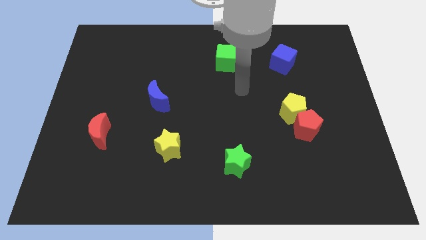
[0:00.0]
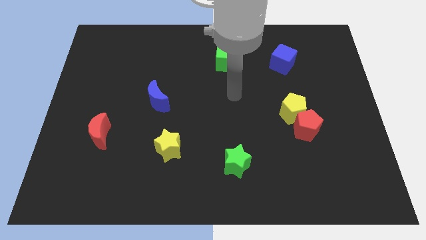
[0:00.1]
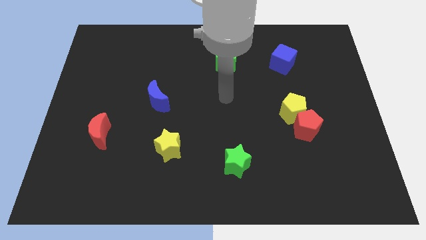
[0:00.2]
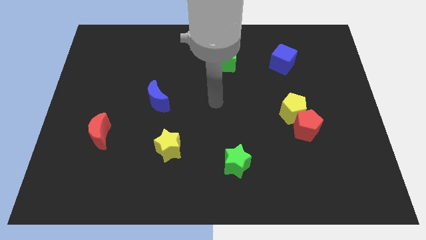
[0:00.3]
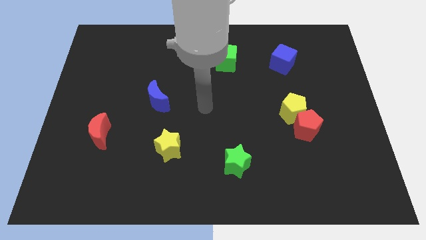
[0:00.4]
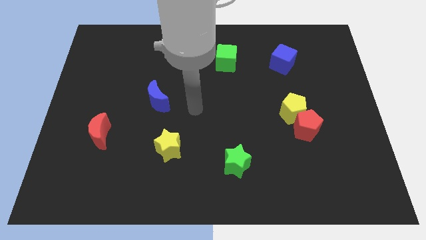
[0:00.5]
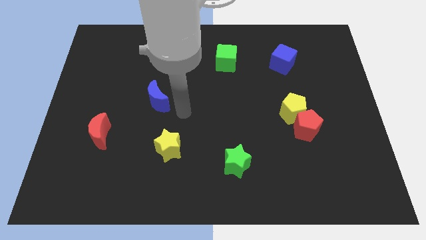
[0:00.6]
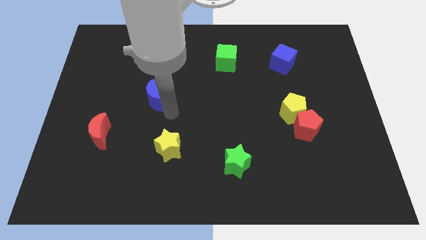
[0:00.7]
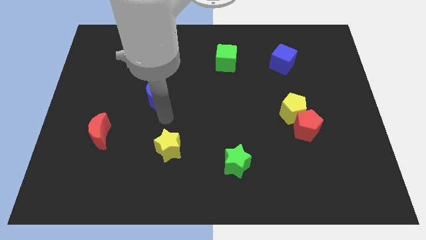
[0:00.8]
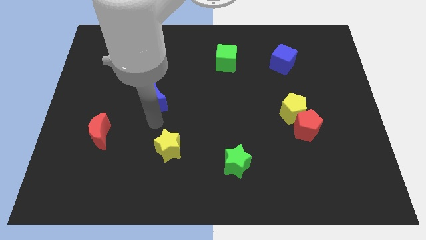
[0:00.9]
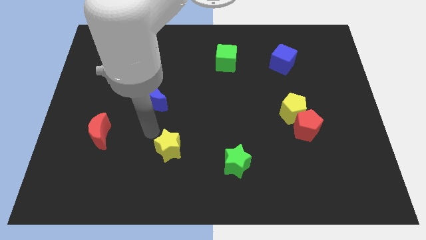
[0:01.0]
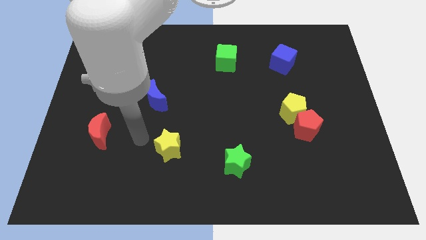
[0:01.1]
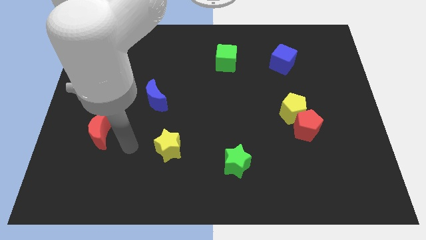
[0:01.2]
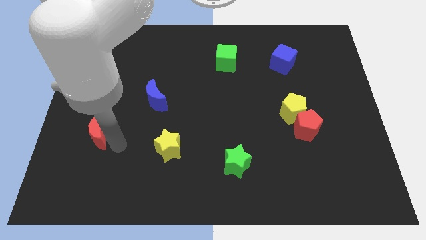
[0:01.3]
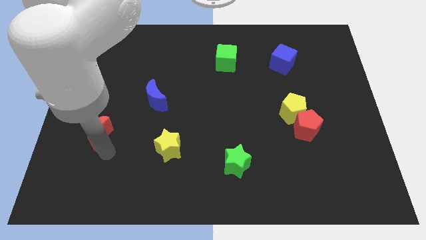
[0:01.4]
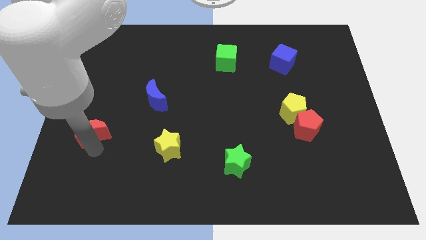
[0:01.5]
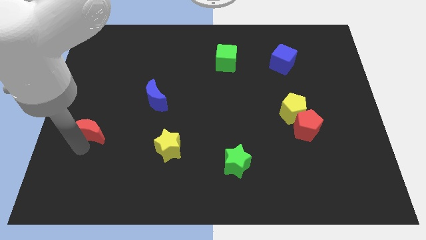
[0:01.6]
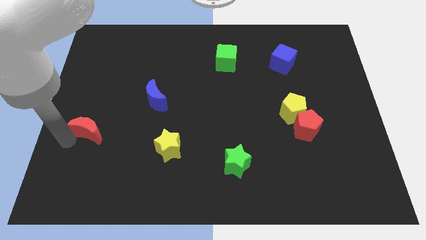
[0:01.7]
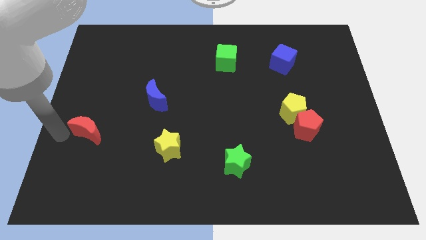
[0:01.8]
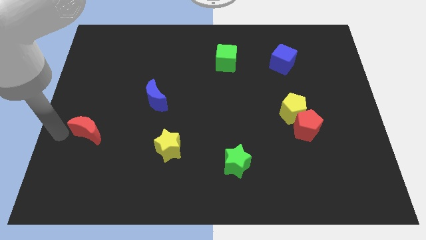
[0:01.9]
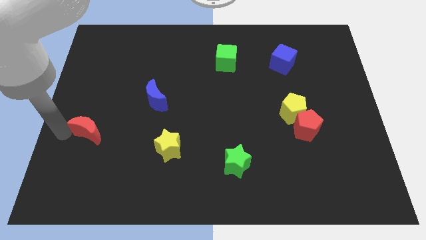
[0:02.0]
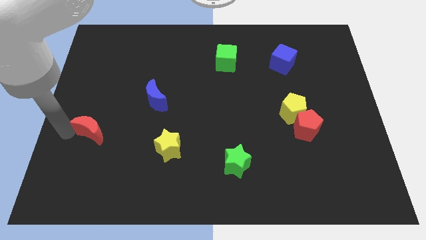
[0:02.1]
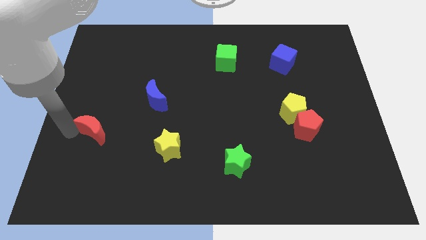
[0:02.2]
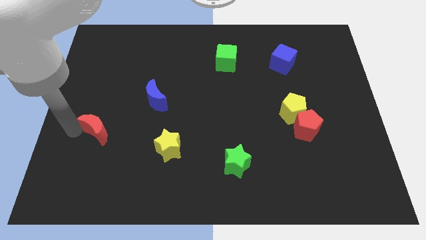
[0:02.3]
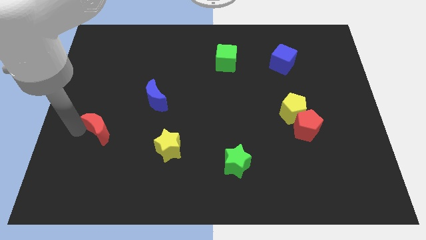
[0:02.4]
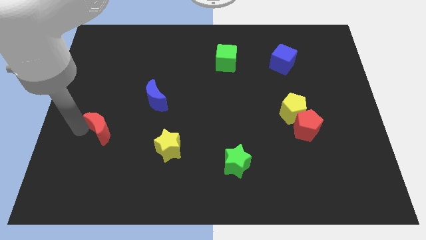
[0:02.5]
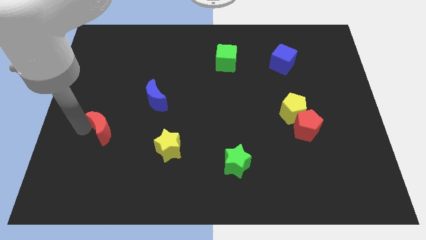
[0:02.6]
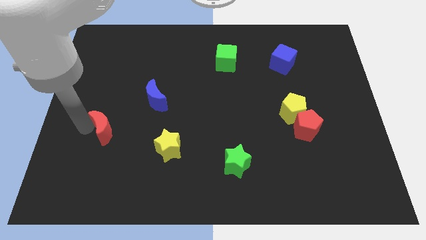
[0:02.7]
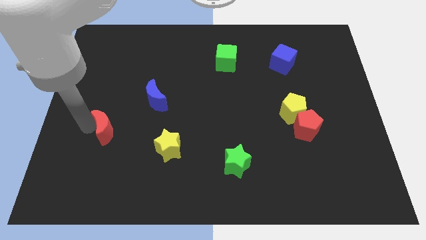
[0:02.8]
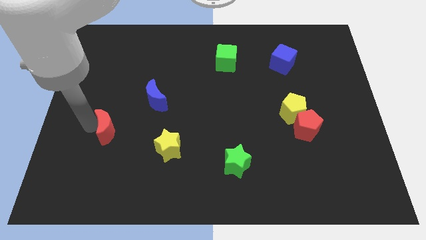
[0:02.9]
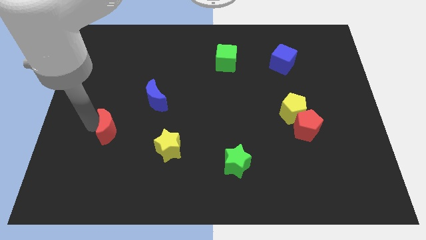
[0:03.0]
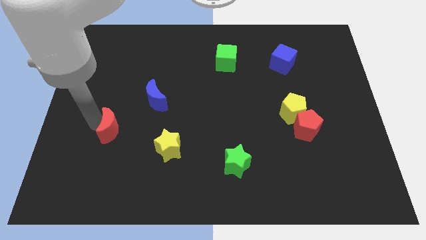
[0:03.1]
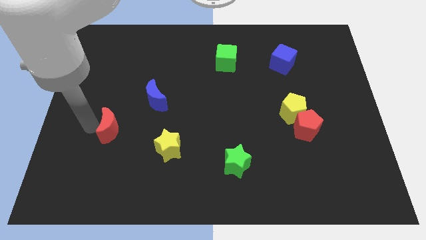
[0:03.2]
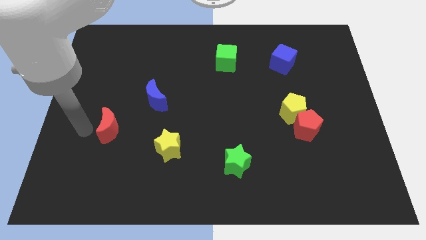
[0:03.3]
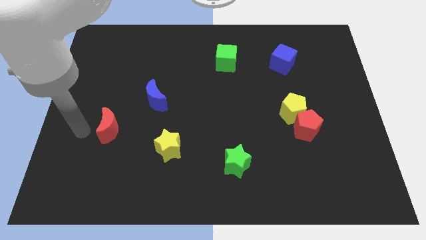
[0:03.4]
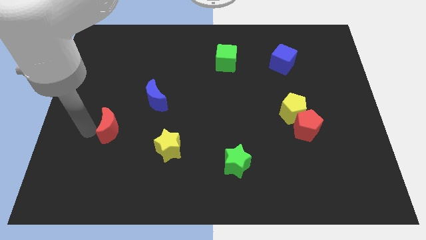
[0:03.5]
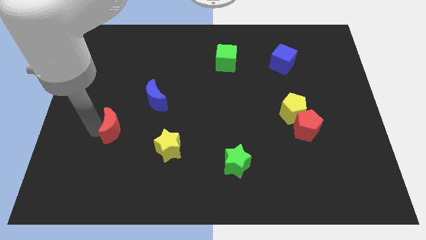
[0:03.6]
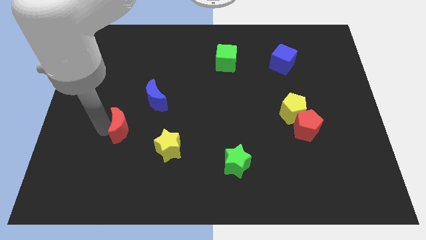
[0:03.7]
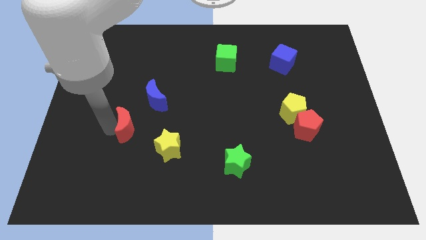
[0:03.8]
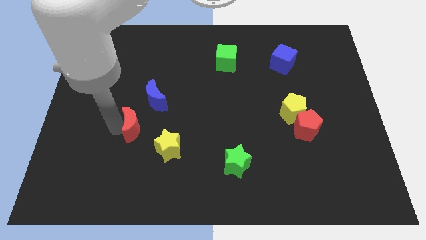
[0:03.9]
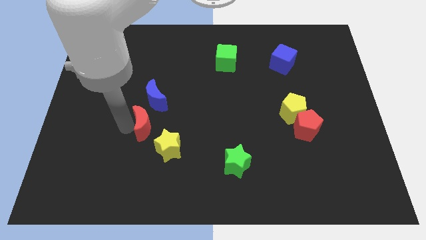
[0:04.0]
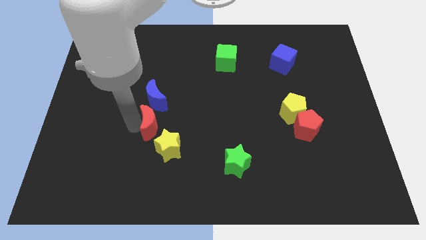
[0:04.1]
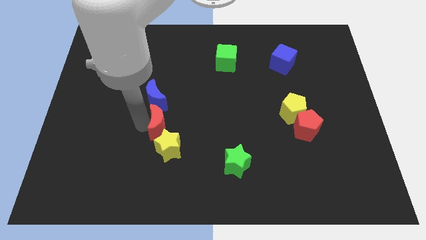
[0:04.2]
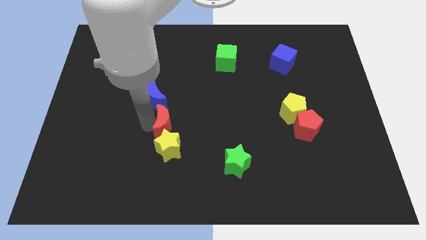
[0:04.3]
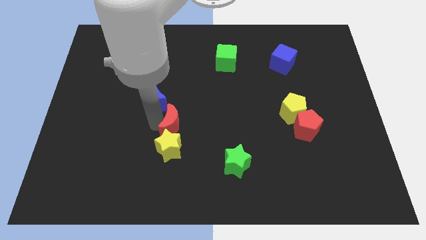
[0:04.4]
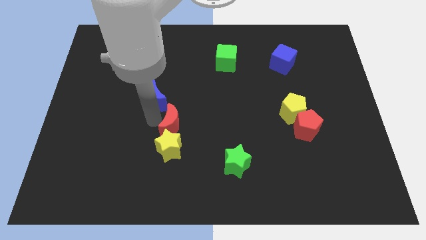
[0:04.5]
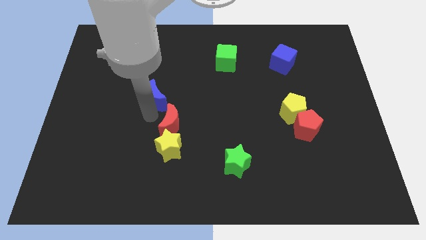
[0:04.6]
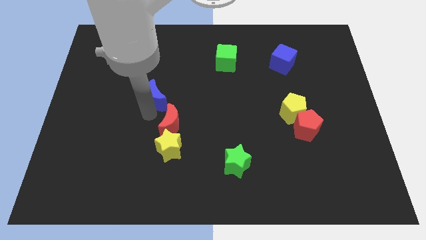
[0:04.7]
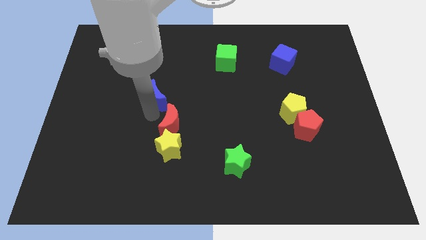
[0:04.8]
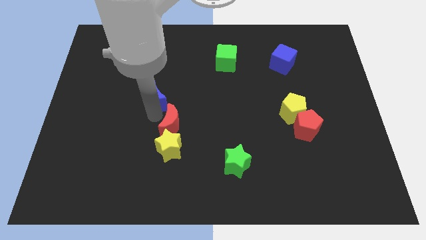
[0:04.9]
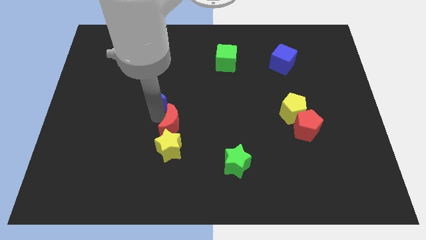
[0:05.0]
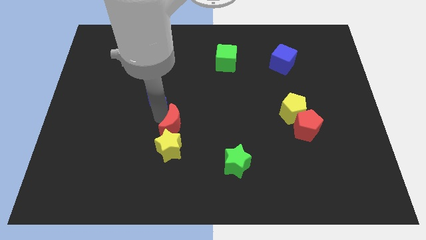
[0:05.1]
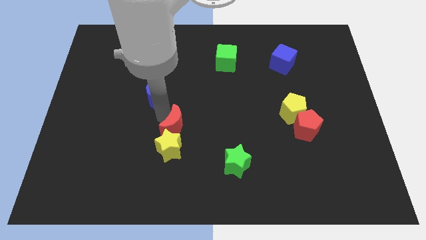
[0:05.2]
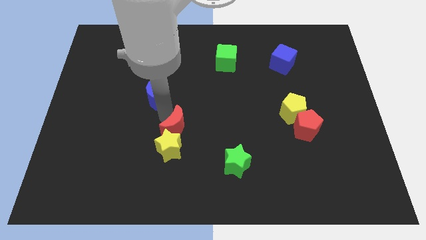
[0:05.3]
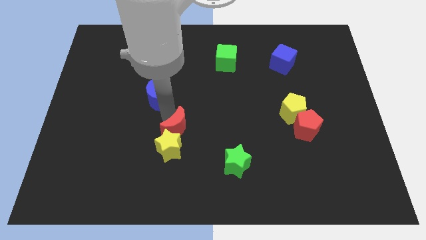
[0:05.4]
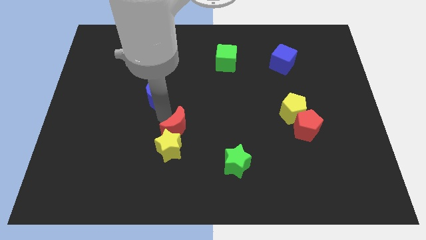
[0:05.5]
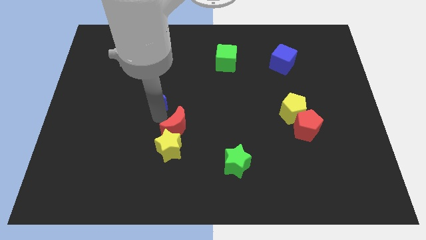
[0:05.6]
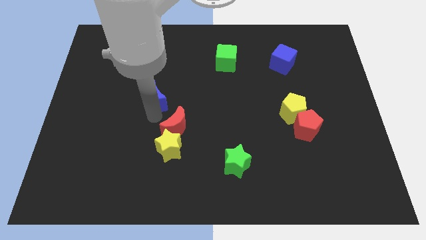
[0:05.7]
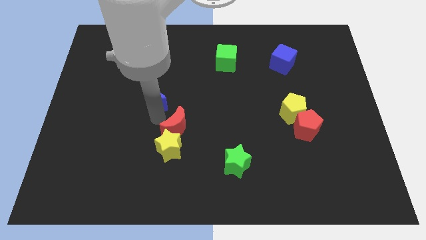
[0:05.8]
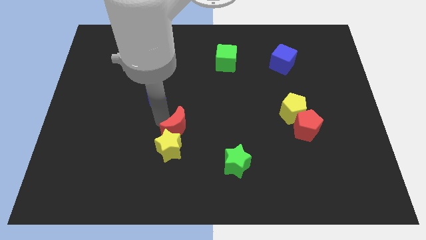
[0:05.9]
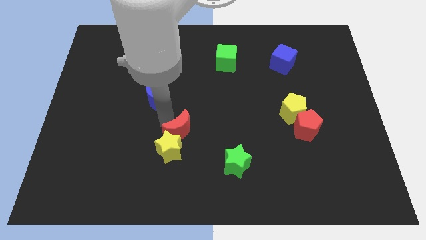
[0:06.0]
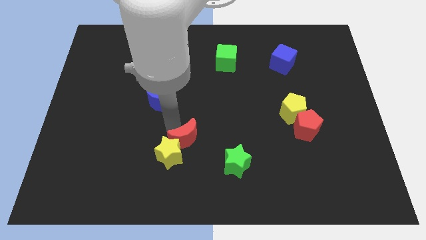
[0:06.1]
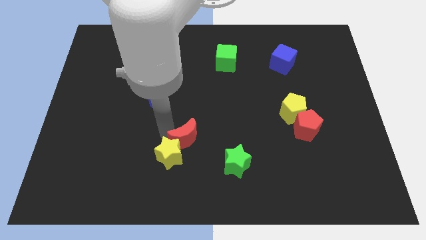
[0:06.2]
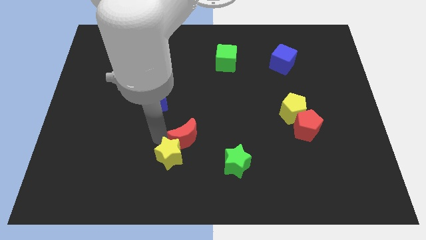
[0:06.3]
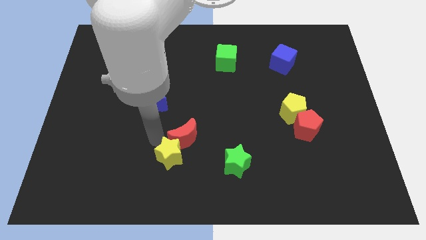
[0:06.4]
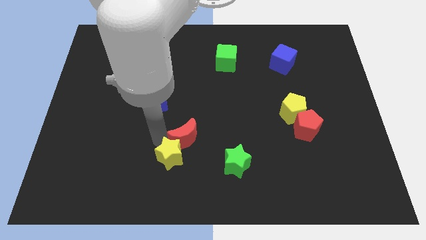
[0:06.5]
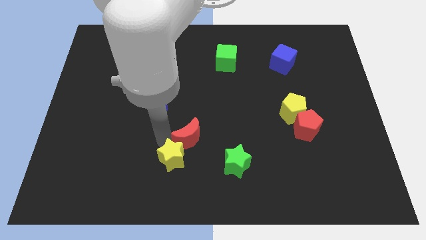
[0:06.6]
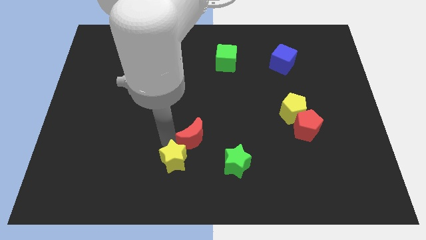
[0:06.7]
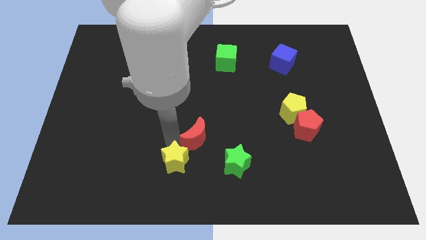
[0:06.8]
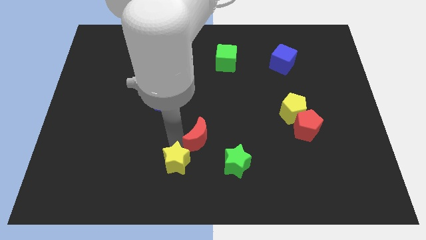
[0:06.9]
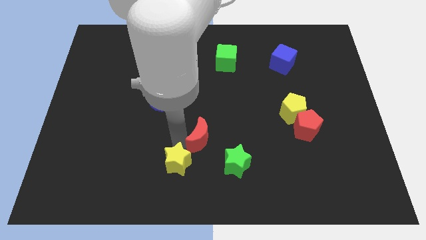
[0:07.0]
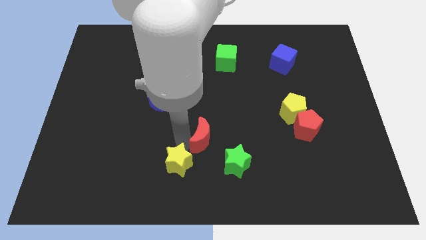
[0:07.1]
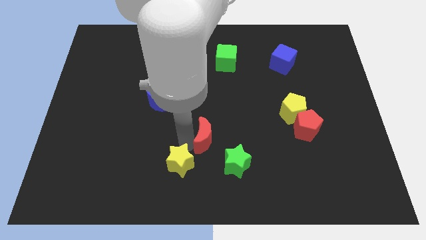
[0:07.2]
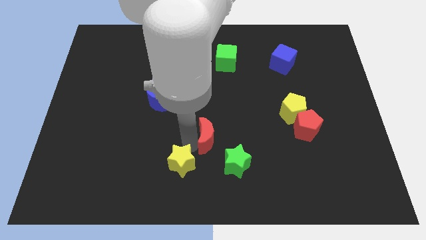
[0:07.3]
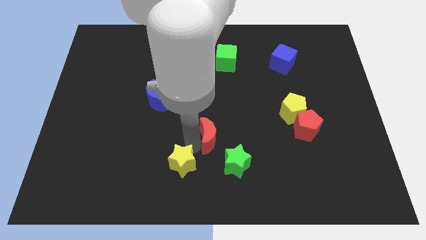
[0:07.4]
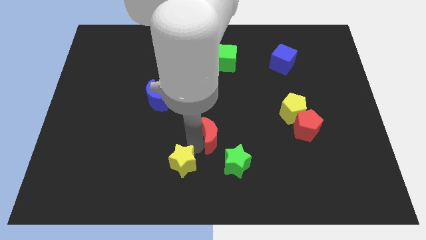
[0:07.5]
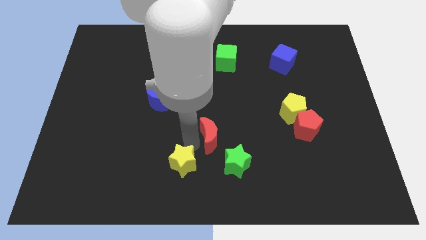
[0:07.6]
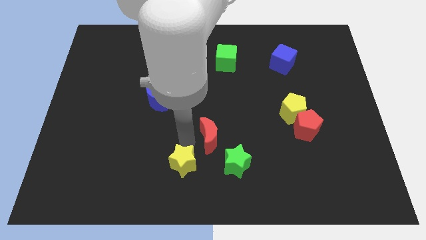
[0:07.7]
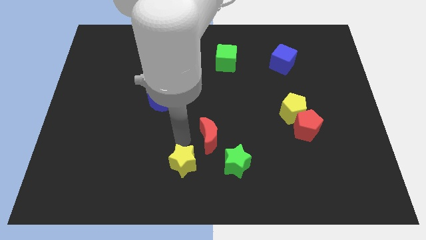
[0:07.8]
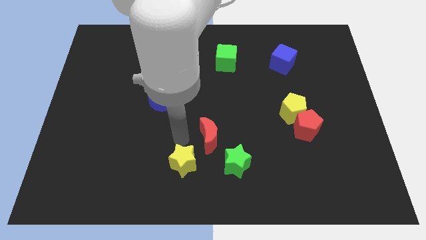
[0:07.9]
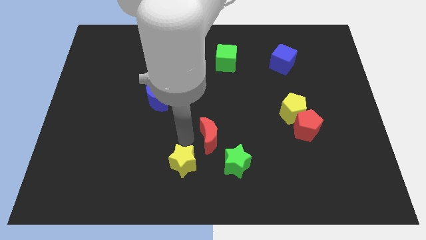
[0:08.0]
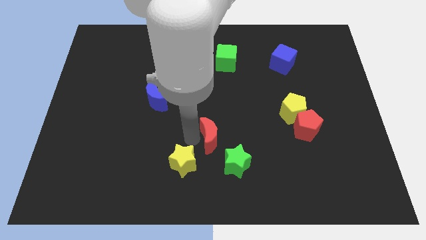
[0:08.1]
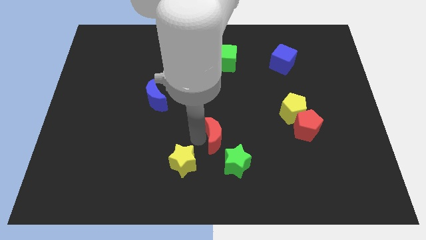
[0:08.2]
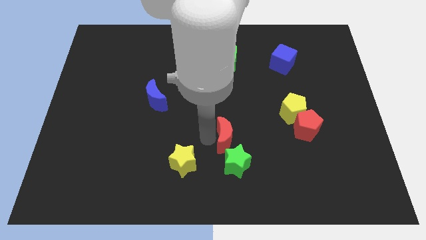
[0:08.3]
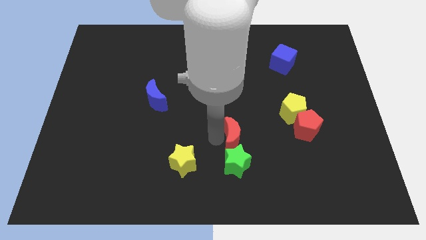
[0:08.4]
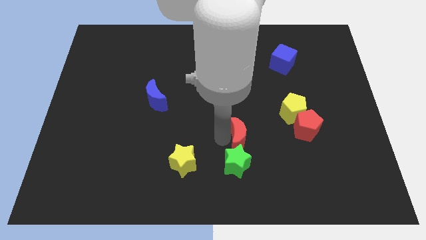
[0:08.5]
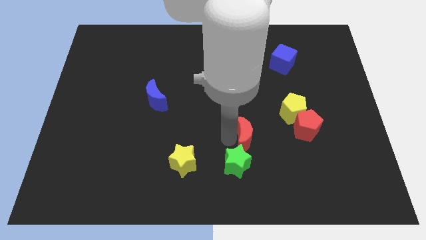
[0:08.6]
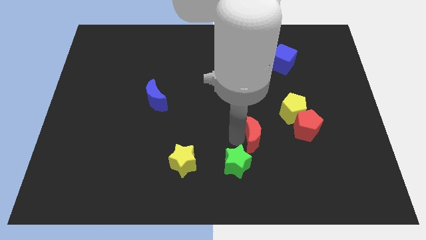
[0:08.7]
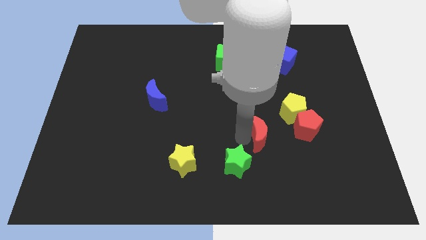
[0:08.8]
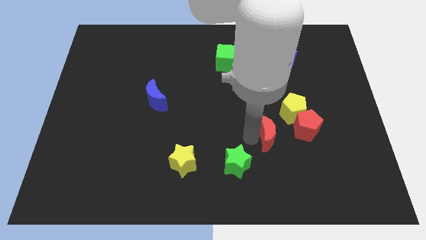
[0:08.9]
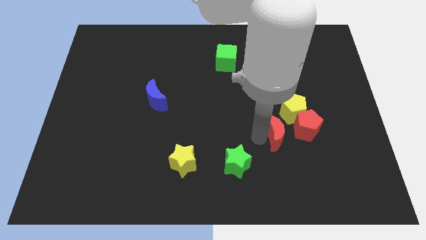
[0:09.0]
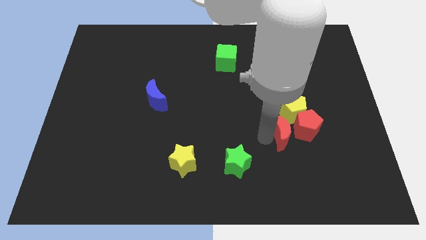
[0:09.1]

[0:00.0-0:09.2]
put the red moon next to the red pentagon
